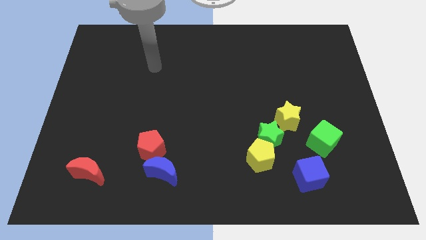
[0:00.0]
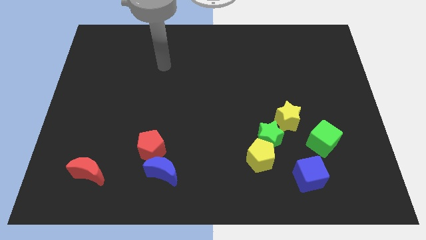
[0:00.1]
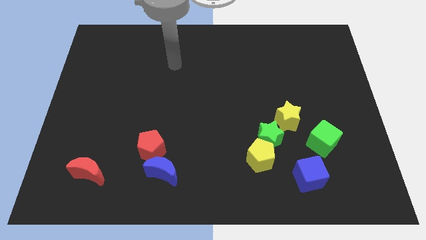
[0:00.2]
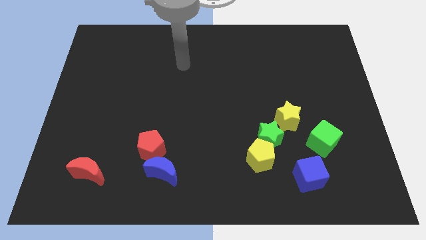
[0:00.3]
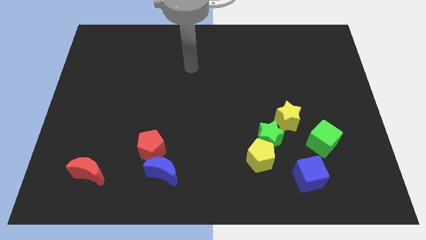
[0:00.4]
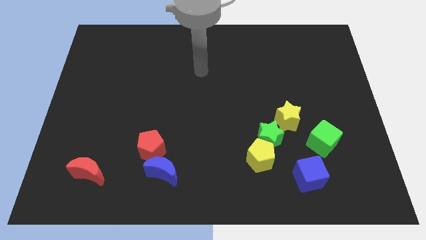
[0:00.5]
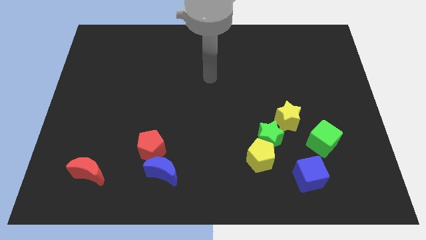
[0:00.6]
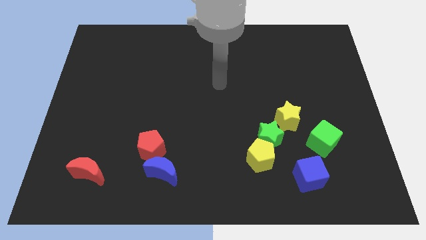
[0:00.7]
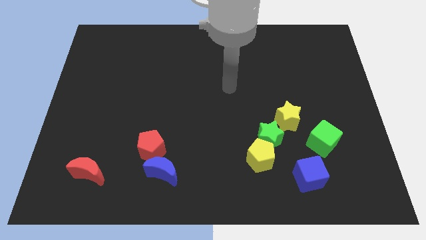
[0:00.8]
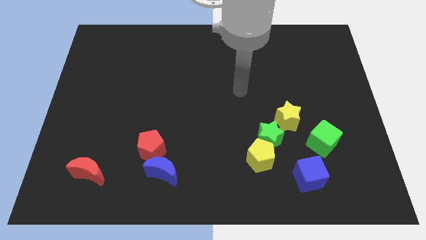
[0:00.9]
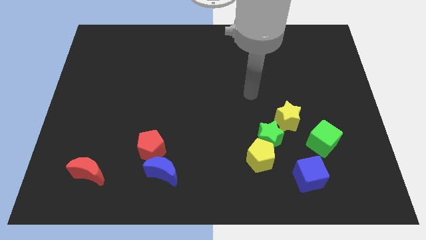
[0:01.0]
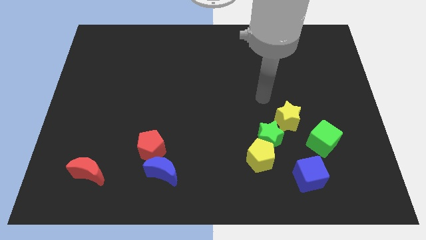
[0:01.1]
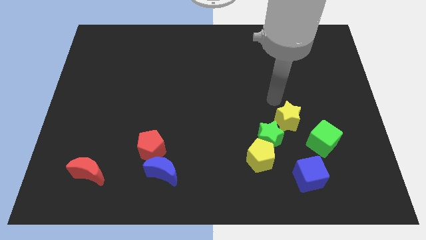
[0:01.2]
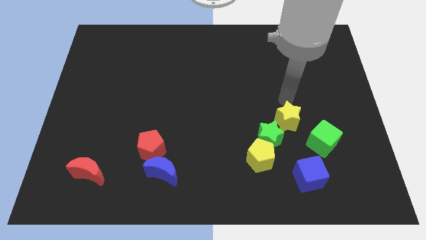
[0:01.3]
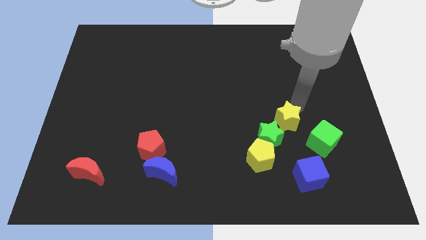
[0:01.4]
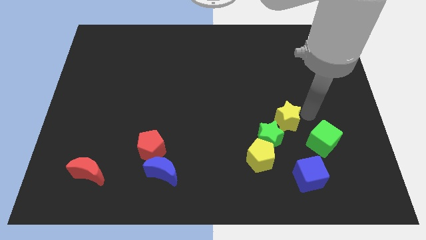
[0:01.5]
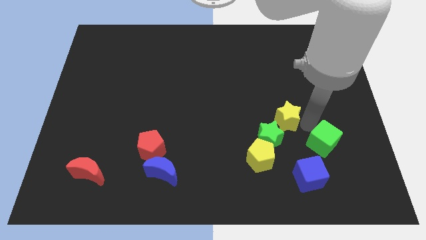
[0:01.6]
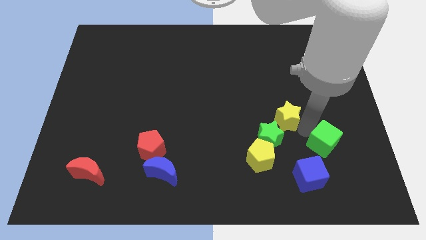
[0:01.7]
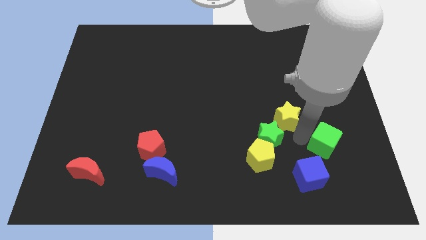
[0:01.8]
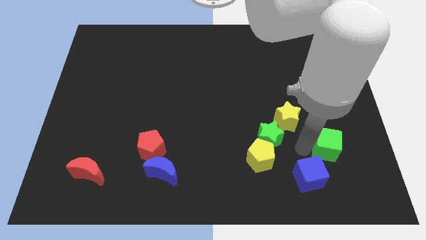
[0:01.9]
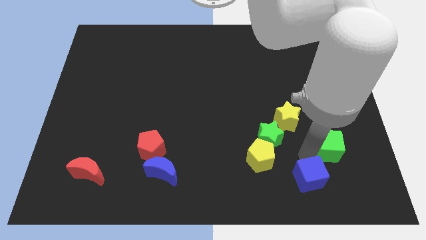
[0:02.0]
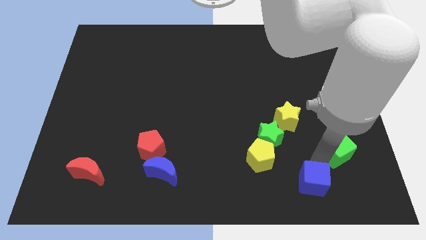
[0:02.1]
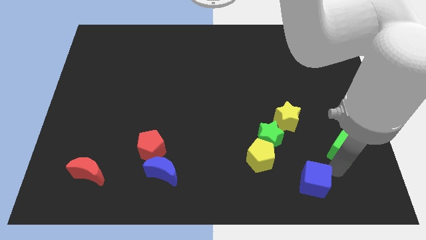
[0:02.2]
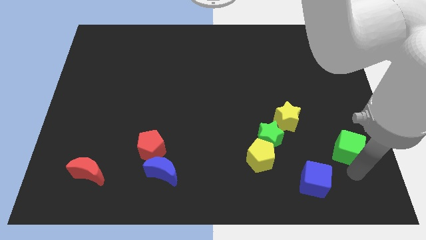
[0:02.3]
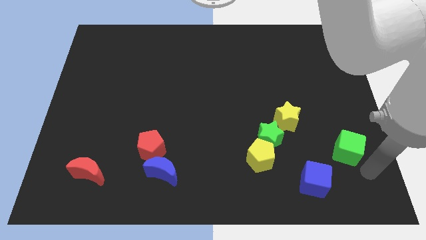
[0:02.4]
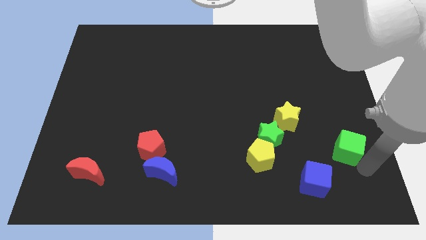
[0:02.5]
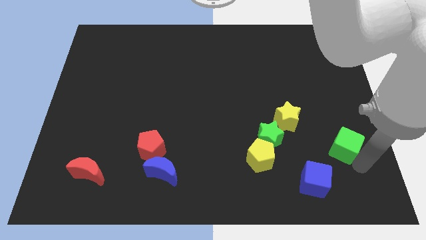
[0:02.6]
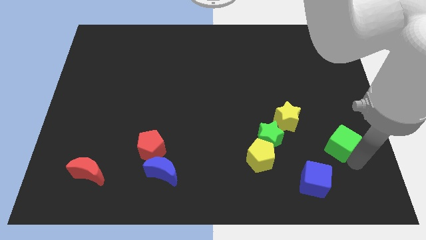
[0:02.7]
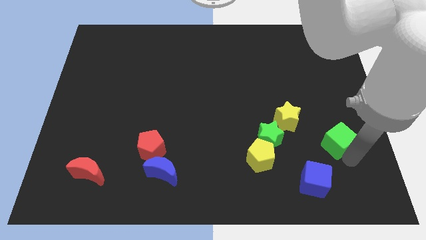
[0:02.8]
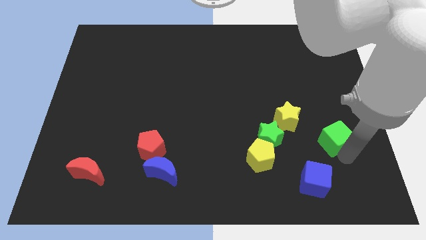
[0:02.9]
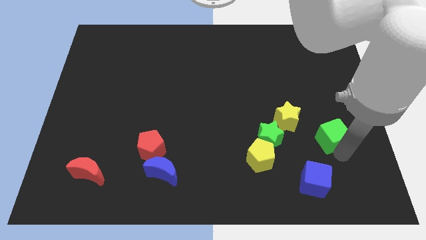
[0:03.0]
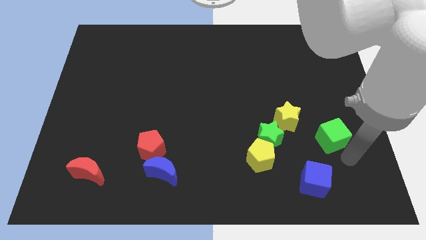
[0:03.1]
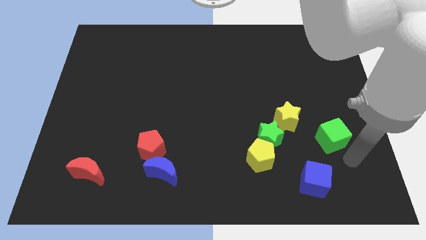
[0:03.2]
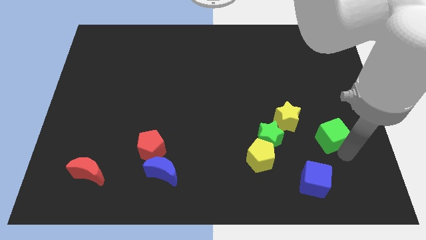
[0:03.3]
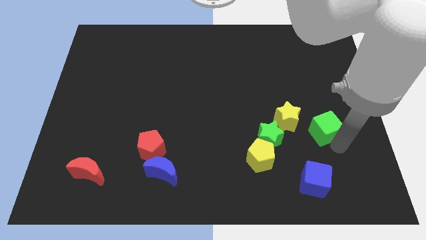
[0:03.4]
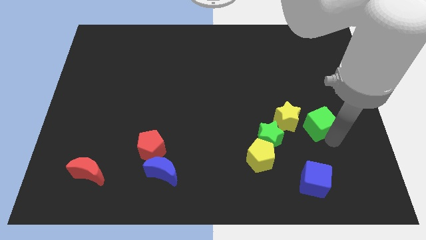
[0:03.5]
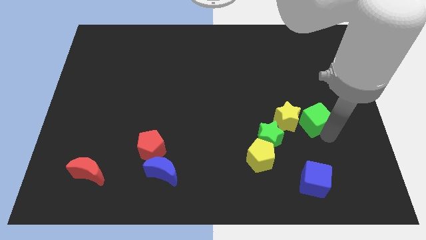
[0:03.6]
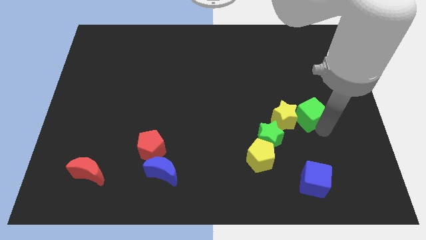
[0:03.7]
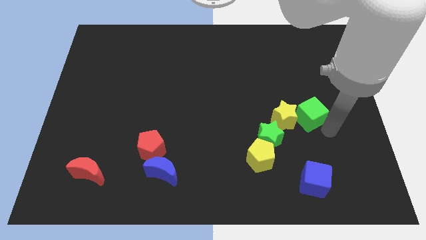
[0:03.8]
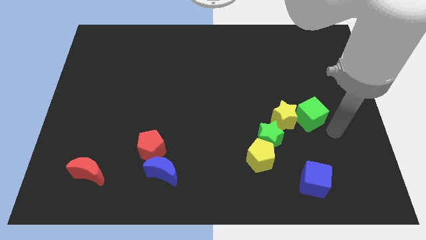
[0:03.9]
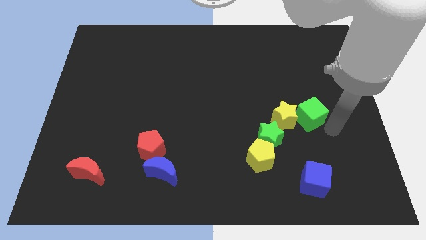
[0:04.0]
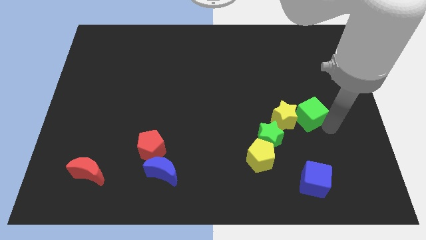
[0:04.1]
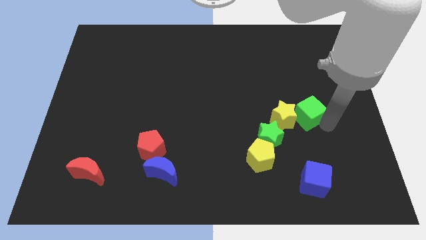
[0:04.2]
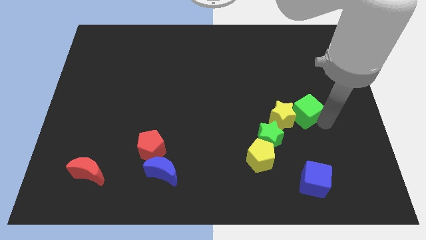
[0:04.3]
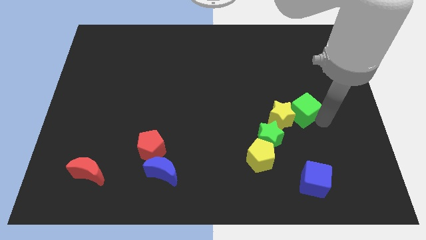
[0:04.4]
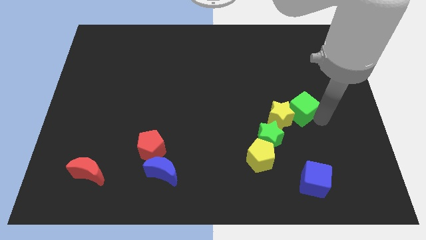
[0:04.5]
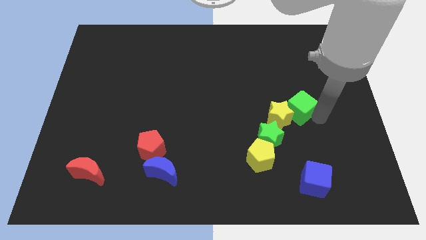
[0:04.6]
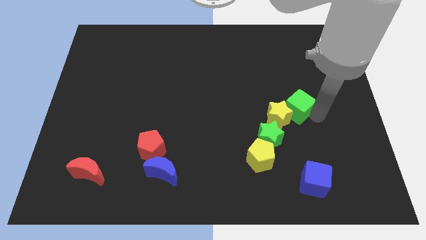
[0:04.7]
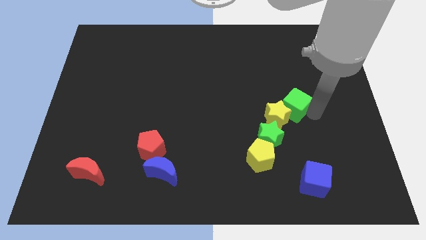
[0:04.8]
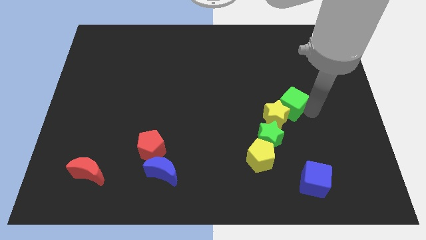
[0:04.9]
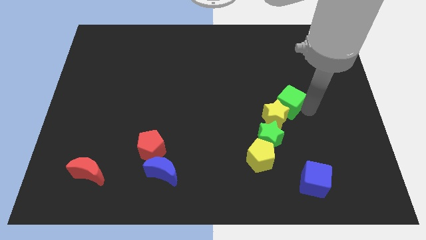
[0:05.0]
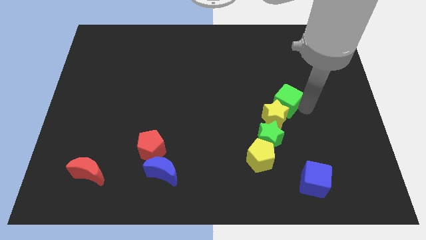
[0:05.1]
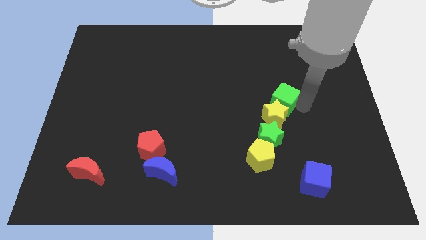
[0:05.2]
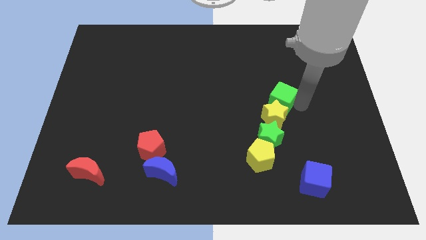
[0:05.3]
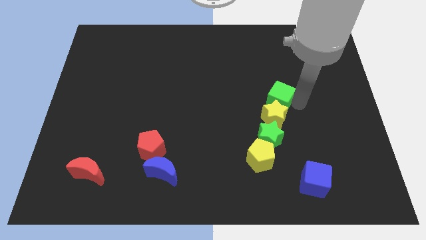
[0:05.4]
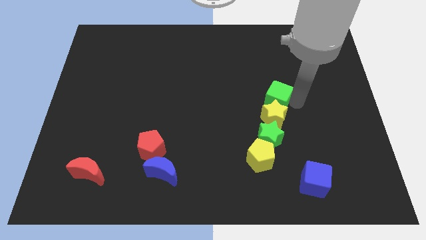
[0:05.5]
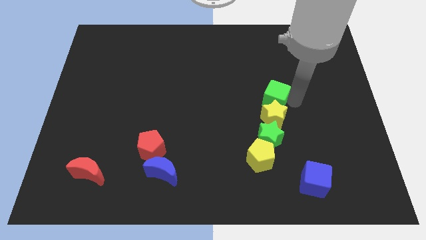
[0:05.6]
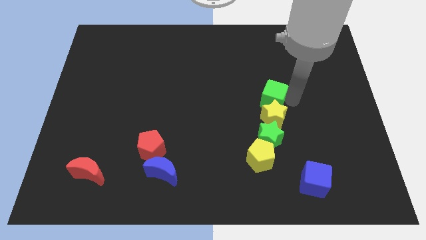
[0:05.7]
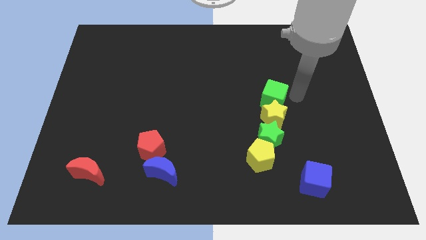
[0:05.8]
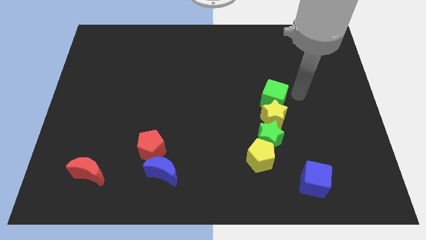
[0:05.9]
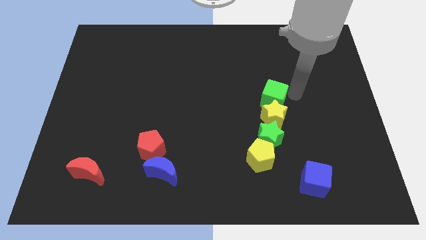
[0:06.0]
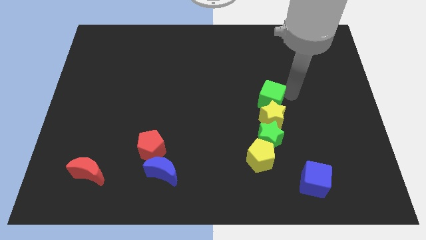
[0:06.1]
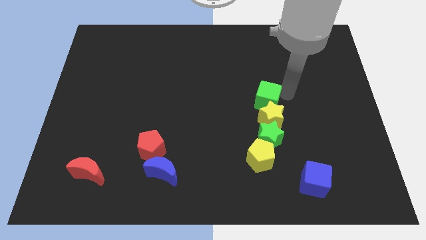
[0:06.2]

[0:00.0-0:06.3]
push the green cube to the middle

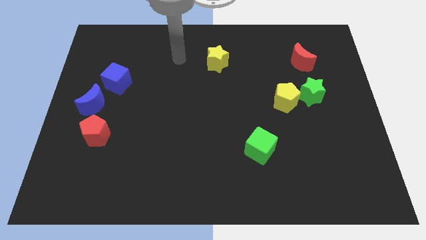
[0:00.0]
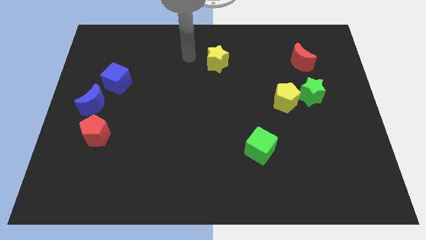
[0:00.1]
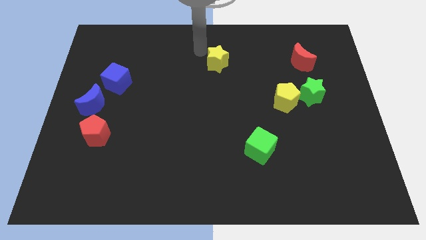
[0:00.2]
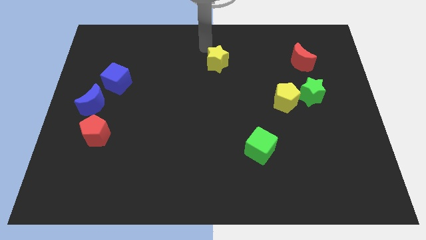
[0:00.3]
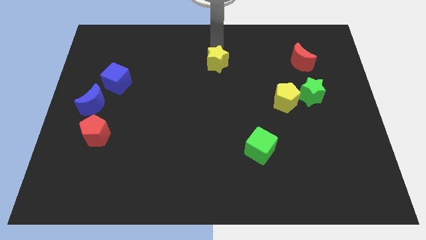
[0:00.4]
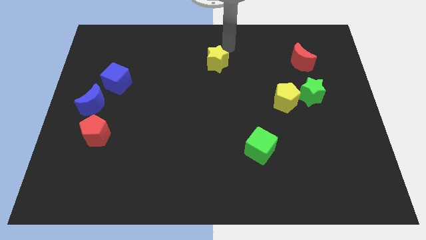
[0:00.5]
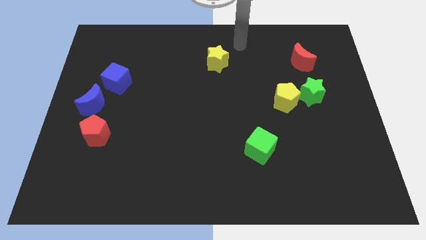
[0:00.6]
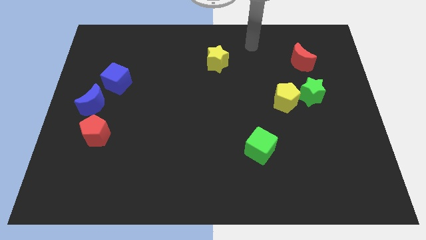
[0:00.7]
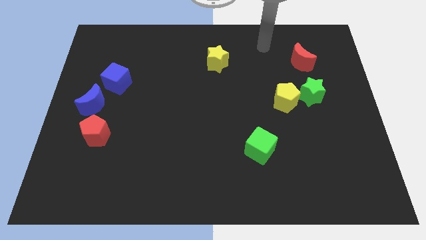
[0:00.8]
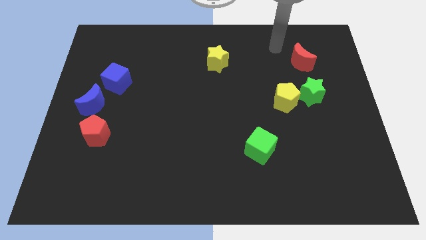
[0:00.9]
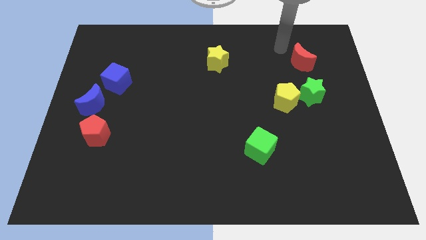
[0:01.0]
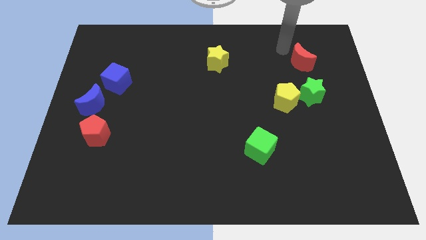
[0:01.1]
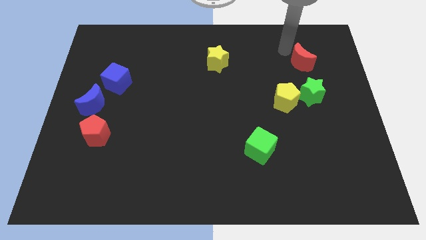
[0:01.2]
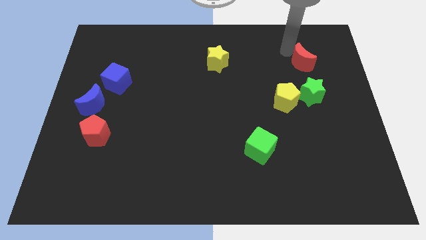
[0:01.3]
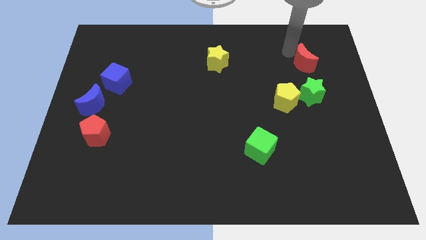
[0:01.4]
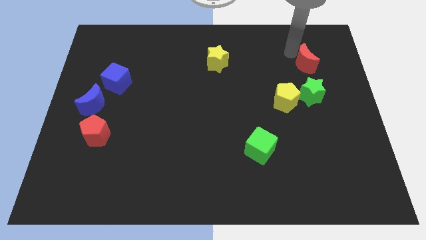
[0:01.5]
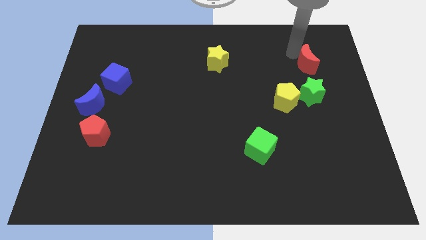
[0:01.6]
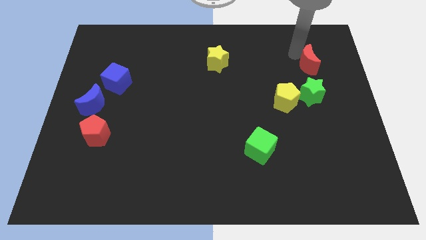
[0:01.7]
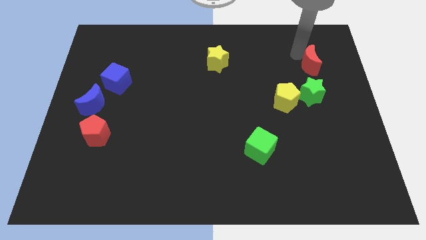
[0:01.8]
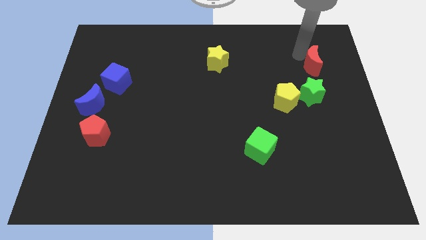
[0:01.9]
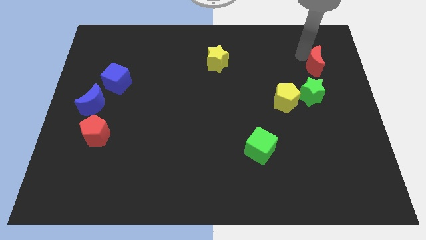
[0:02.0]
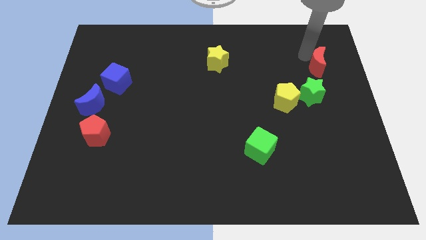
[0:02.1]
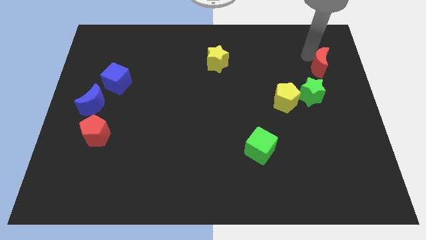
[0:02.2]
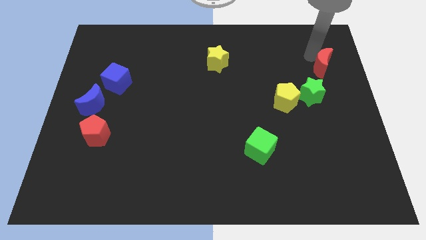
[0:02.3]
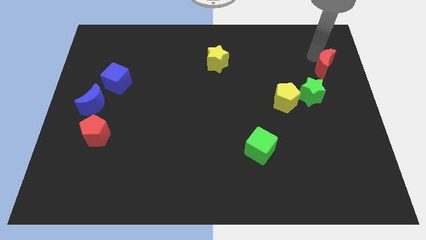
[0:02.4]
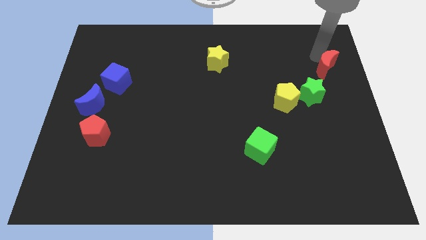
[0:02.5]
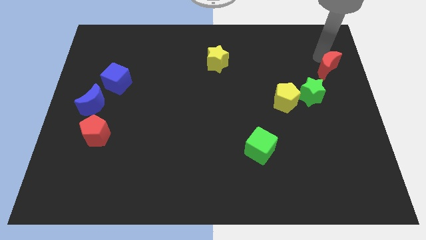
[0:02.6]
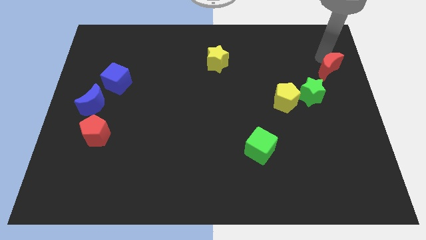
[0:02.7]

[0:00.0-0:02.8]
push the red moon to the right side
